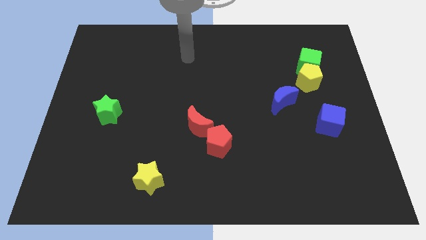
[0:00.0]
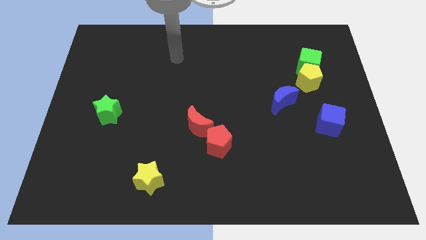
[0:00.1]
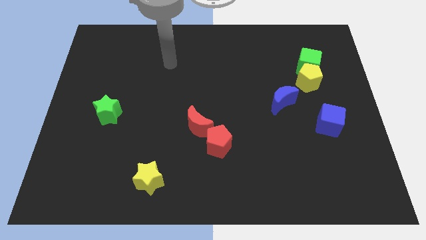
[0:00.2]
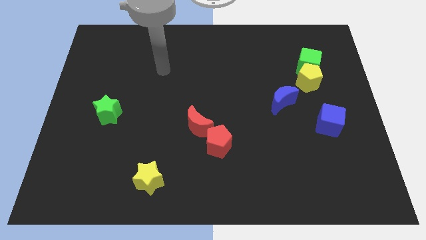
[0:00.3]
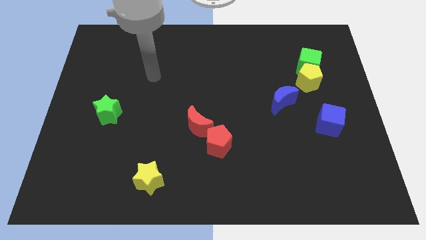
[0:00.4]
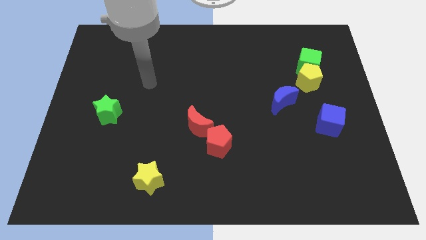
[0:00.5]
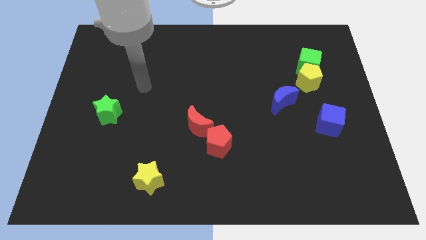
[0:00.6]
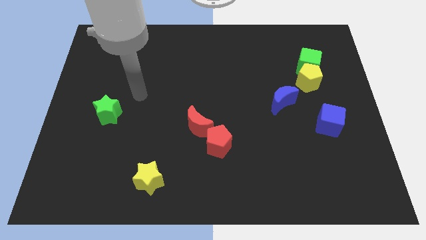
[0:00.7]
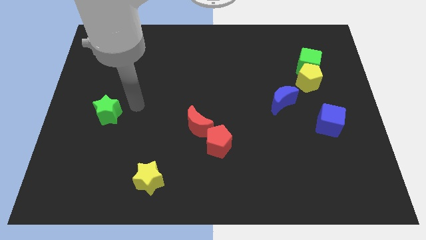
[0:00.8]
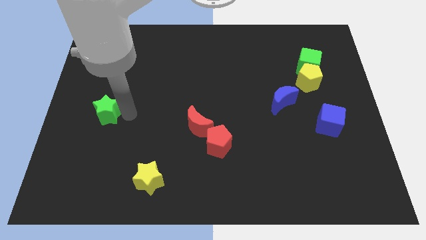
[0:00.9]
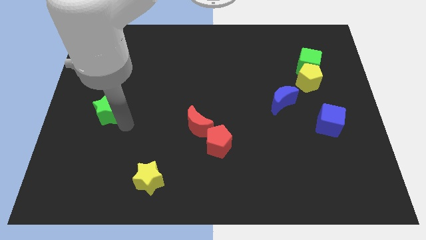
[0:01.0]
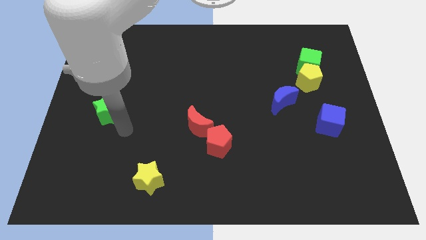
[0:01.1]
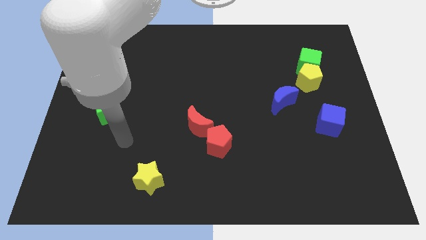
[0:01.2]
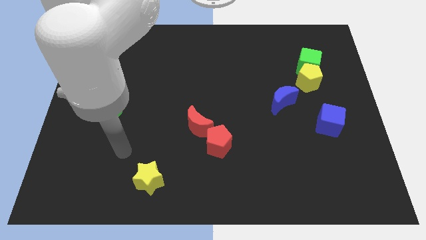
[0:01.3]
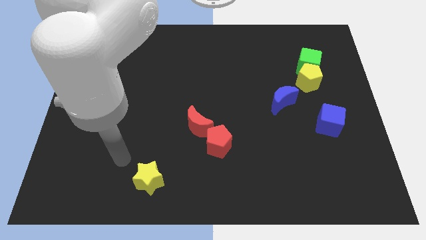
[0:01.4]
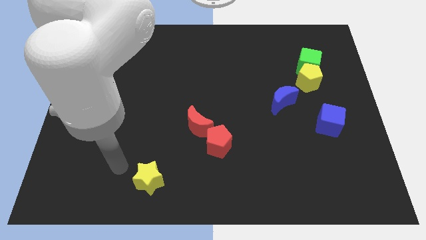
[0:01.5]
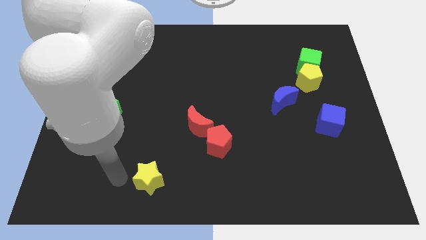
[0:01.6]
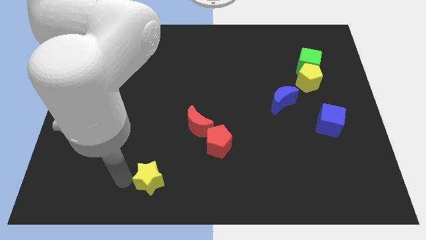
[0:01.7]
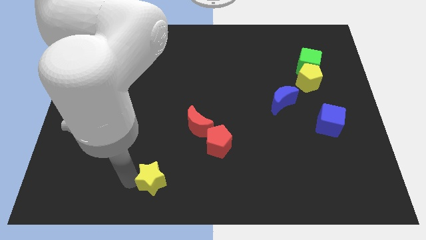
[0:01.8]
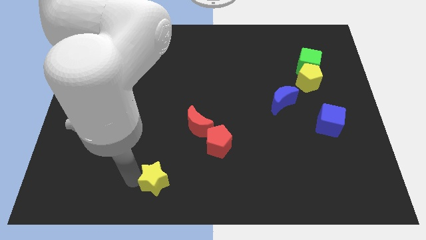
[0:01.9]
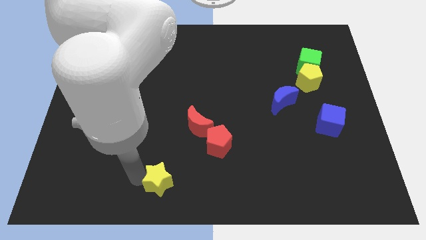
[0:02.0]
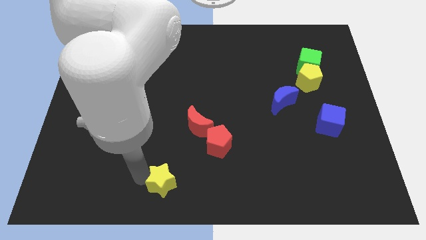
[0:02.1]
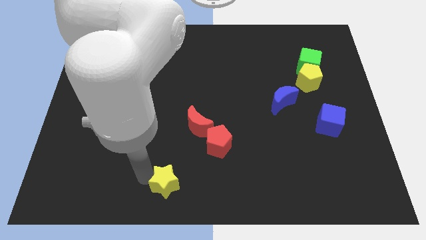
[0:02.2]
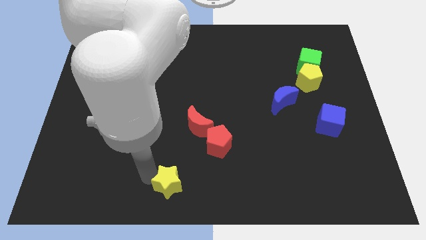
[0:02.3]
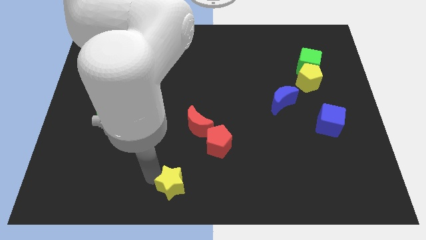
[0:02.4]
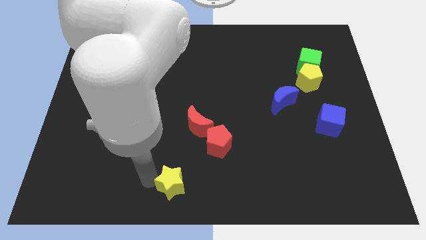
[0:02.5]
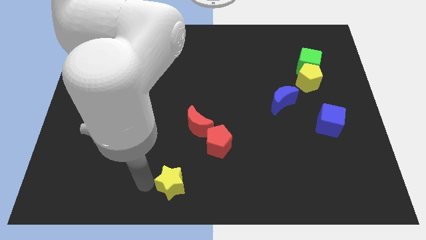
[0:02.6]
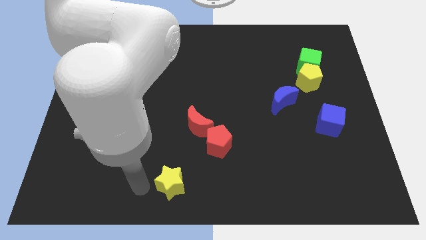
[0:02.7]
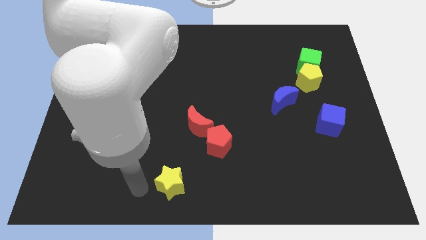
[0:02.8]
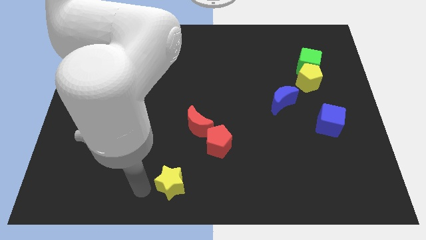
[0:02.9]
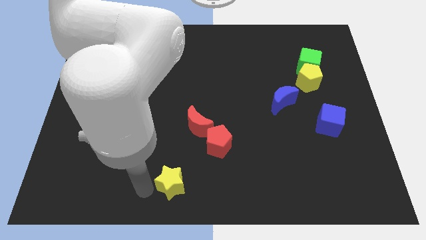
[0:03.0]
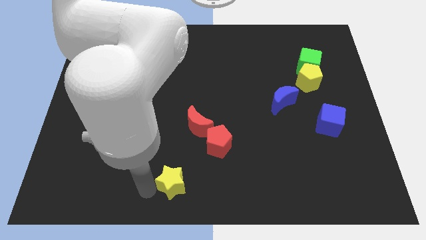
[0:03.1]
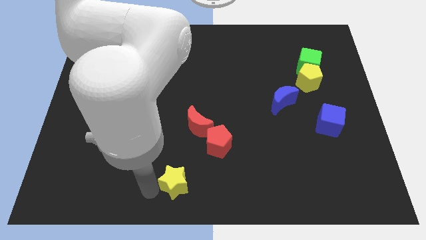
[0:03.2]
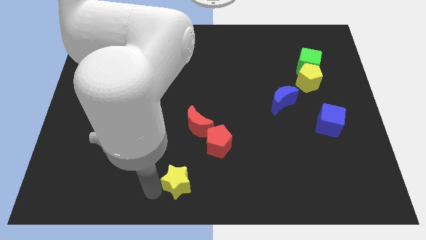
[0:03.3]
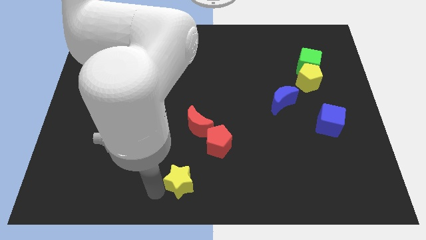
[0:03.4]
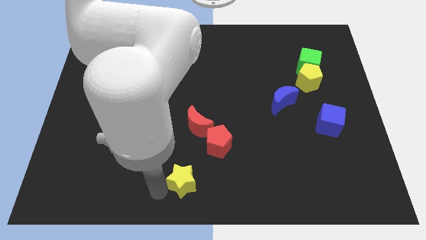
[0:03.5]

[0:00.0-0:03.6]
slightly slide the yellow star right

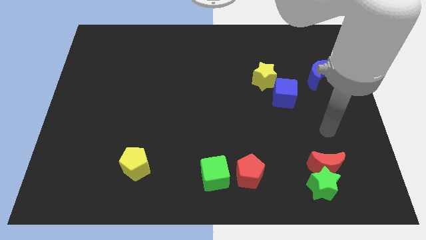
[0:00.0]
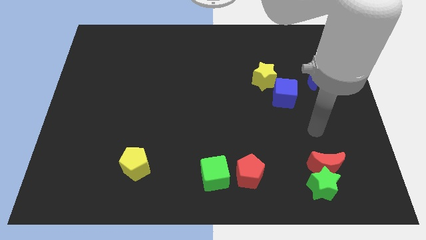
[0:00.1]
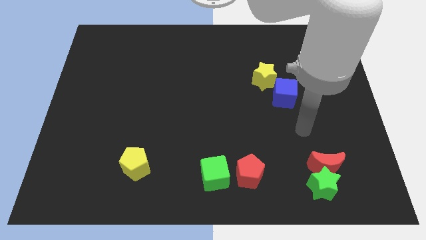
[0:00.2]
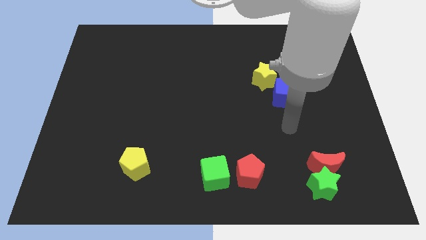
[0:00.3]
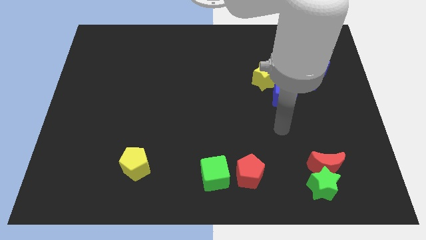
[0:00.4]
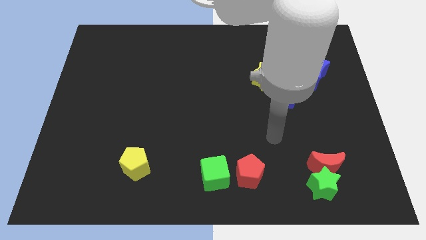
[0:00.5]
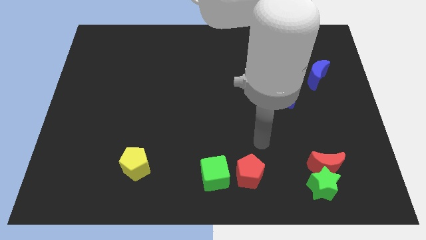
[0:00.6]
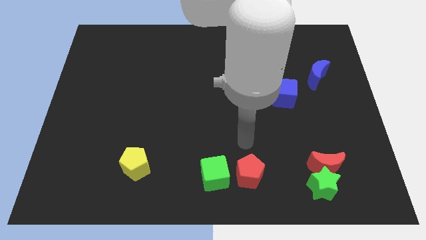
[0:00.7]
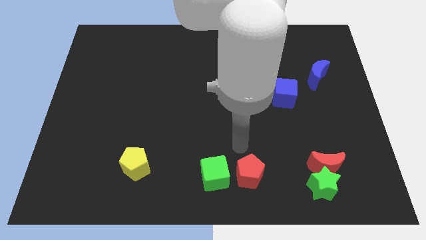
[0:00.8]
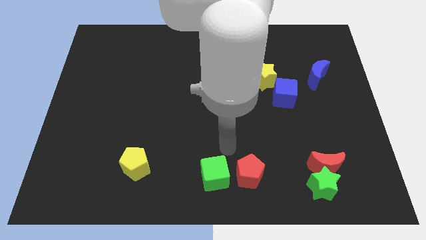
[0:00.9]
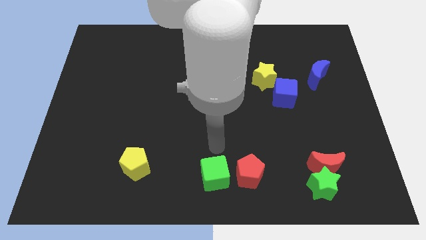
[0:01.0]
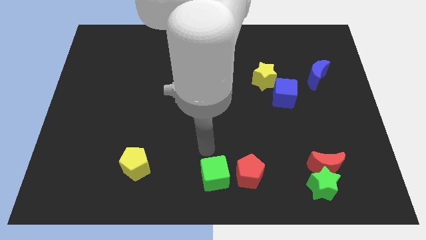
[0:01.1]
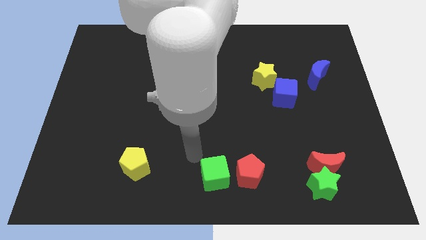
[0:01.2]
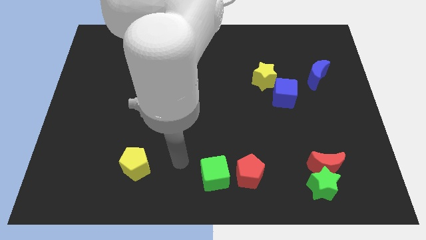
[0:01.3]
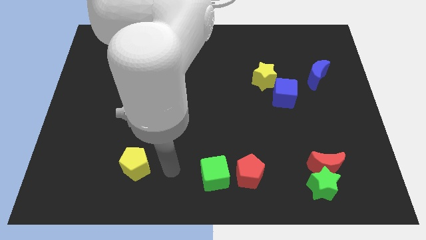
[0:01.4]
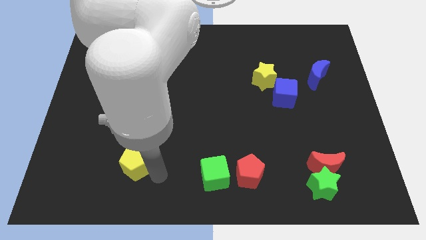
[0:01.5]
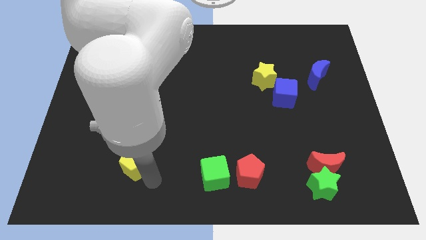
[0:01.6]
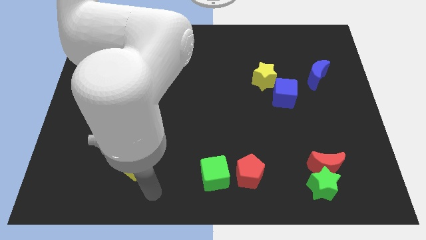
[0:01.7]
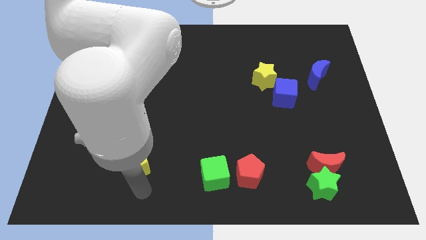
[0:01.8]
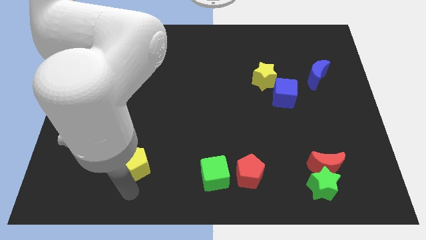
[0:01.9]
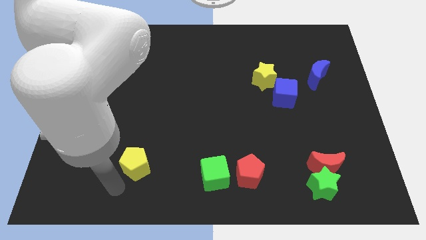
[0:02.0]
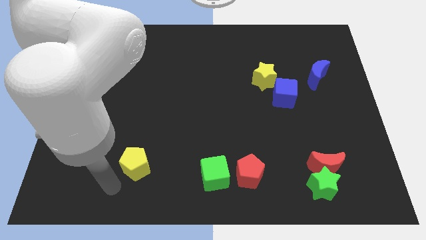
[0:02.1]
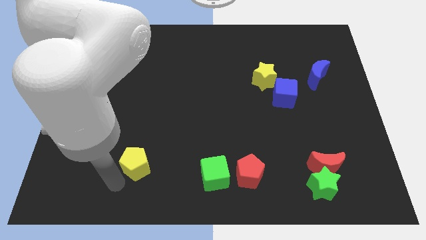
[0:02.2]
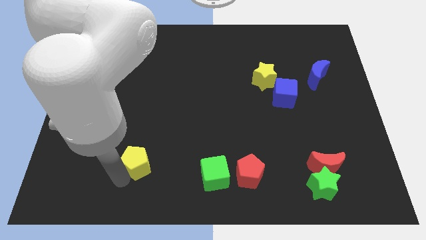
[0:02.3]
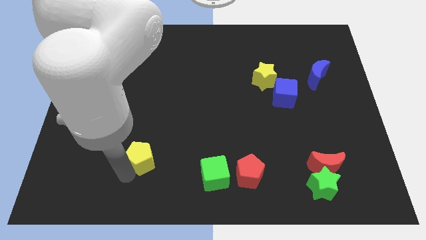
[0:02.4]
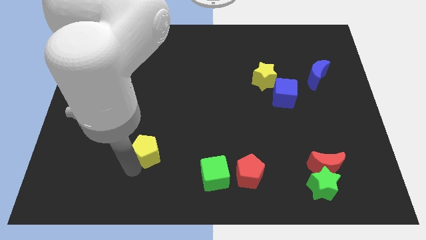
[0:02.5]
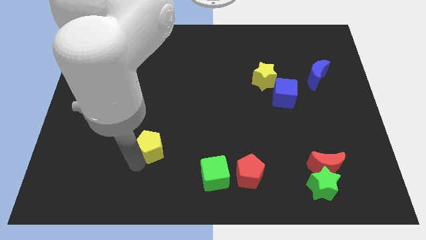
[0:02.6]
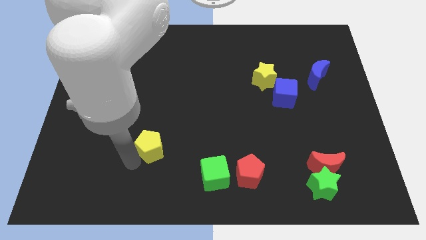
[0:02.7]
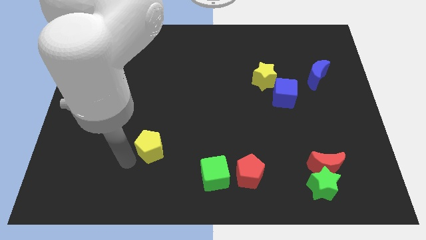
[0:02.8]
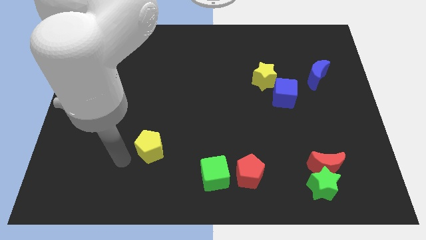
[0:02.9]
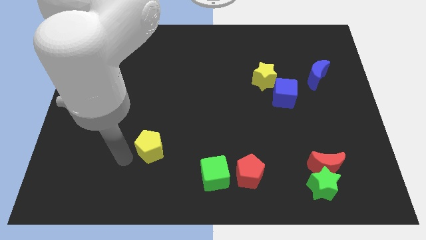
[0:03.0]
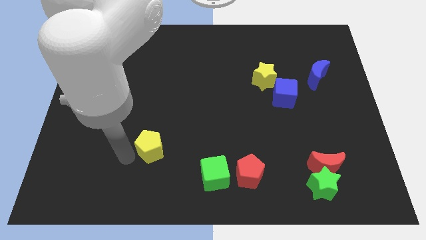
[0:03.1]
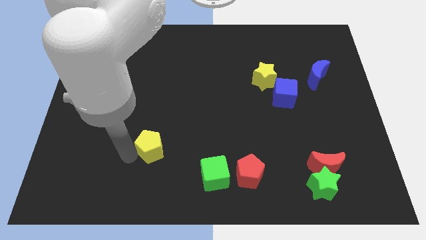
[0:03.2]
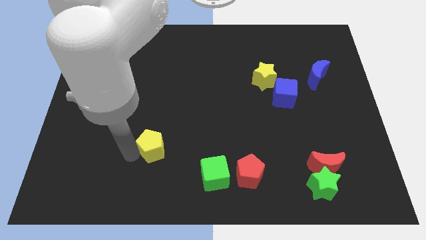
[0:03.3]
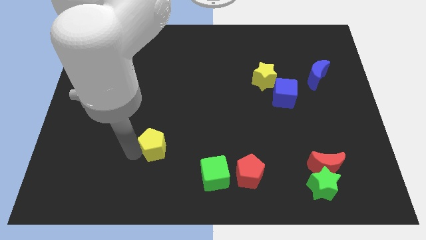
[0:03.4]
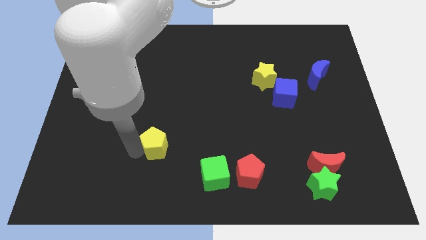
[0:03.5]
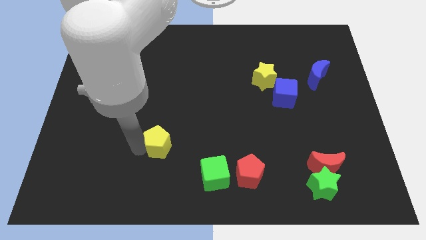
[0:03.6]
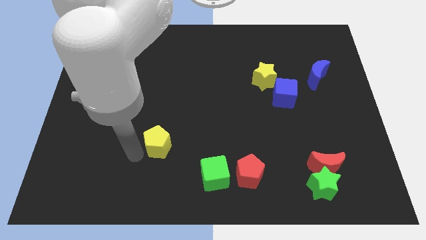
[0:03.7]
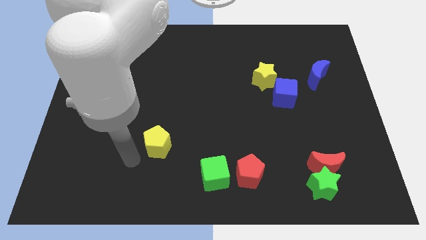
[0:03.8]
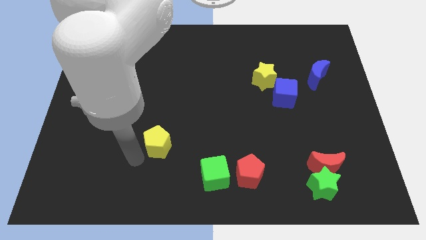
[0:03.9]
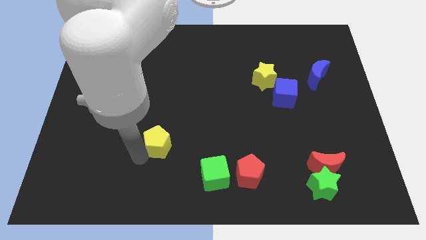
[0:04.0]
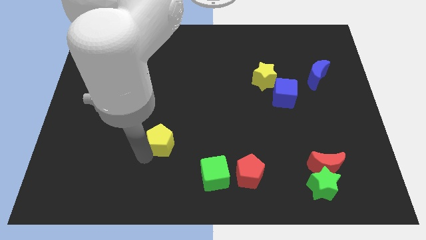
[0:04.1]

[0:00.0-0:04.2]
push the yellow pentagon a little bit up and to the right

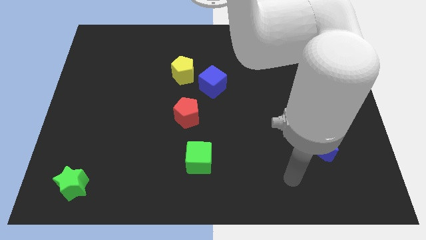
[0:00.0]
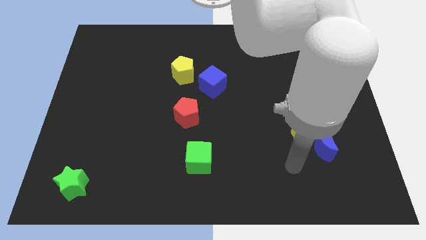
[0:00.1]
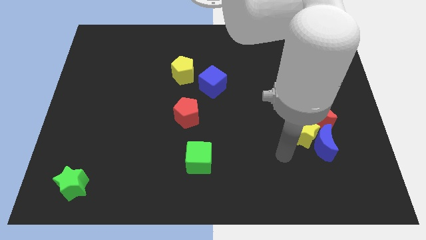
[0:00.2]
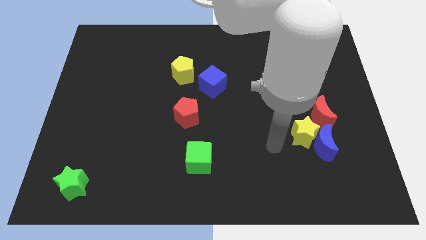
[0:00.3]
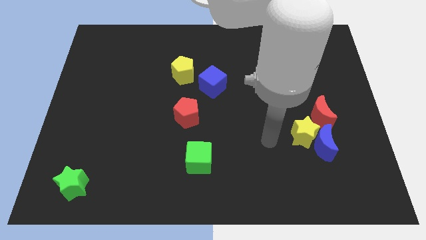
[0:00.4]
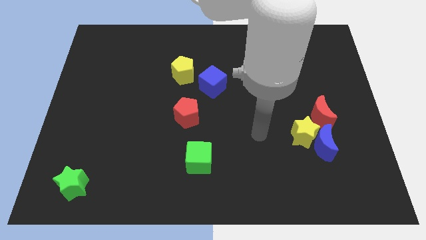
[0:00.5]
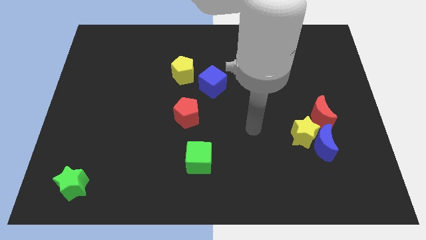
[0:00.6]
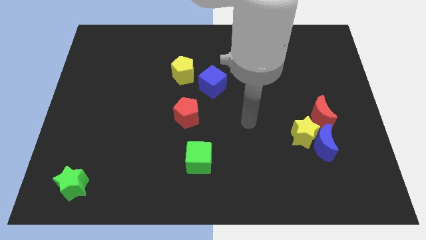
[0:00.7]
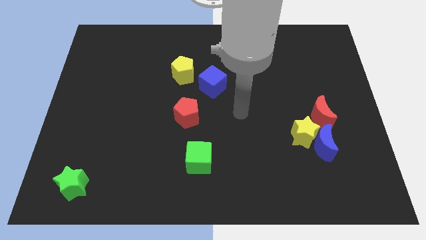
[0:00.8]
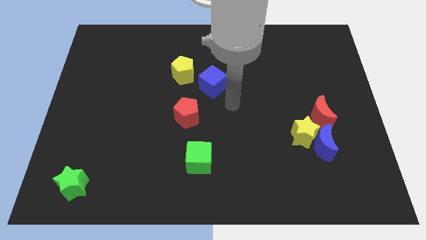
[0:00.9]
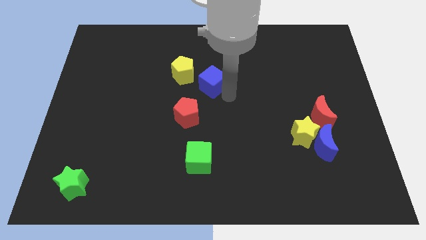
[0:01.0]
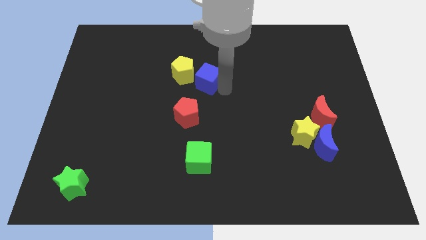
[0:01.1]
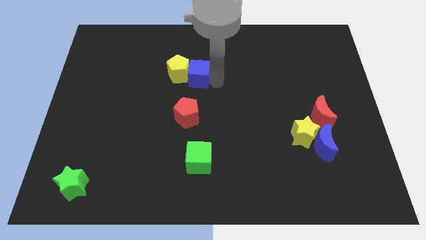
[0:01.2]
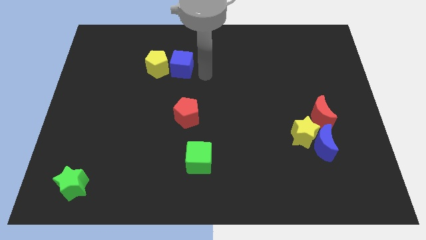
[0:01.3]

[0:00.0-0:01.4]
slide the yellow pentagon left somewhat
